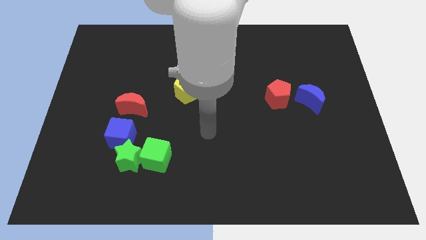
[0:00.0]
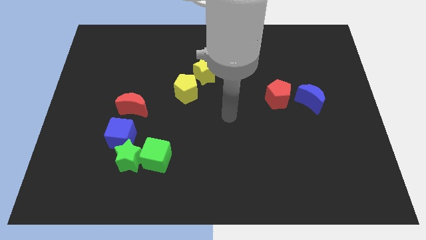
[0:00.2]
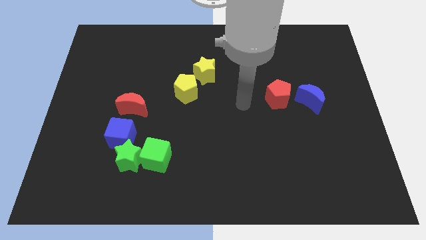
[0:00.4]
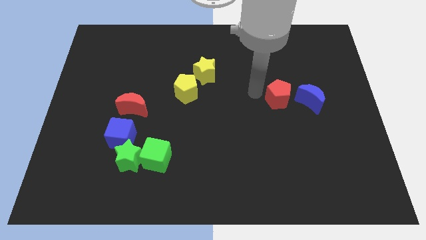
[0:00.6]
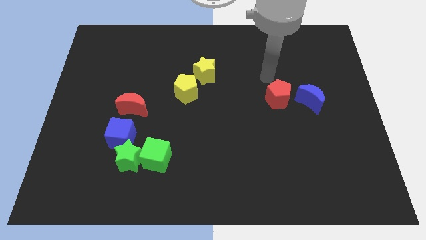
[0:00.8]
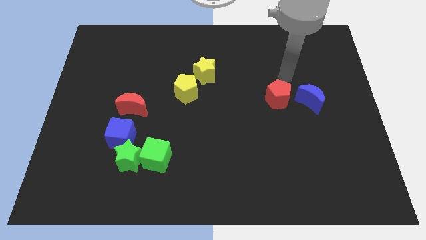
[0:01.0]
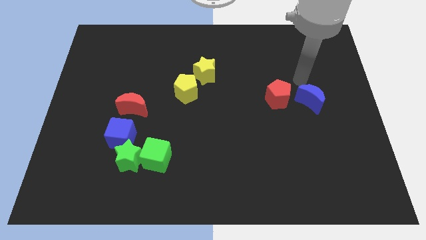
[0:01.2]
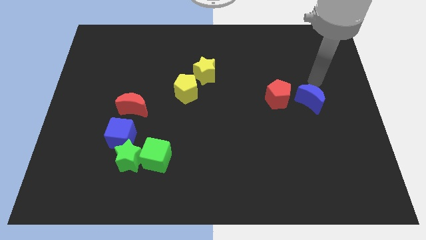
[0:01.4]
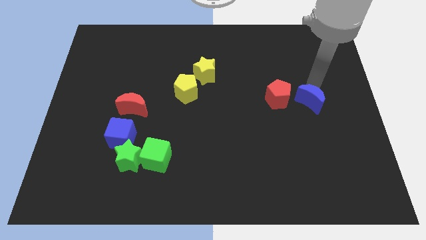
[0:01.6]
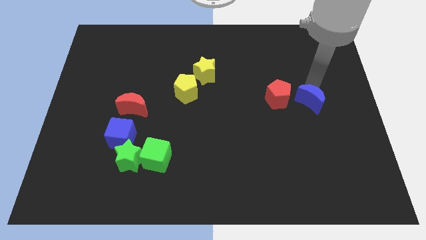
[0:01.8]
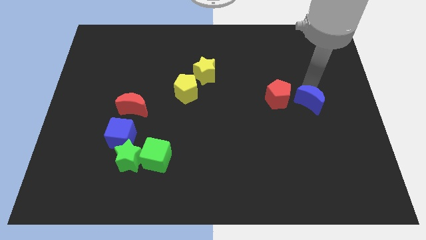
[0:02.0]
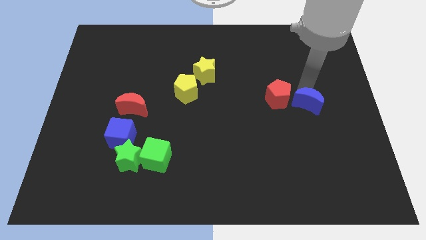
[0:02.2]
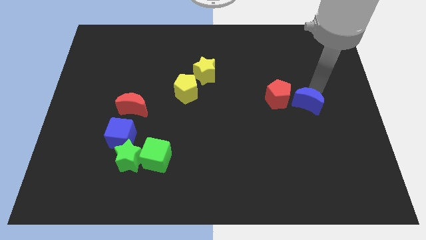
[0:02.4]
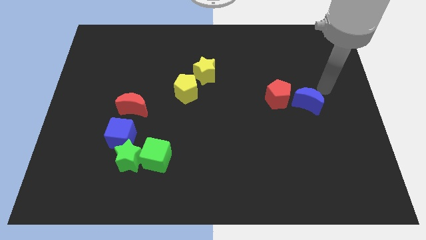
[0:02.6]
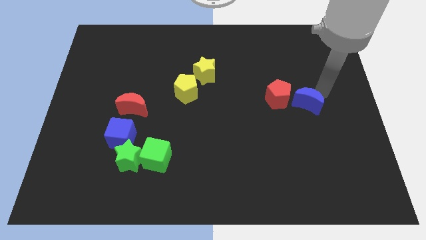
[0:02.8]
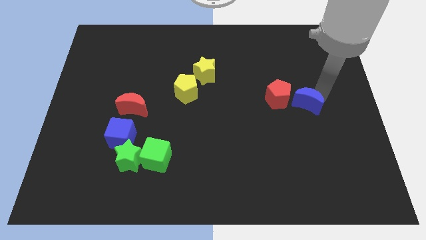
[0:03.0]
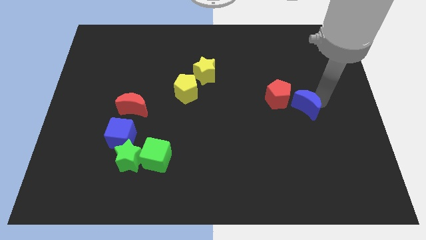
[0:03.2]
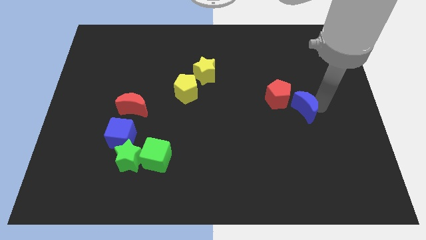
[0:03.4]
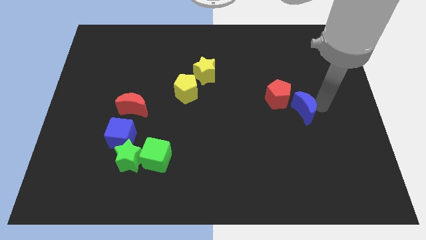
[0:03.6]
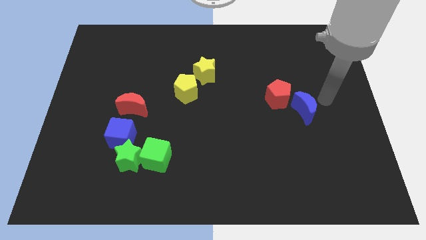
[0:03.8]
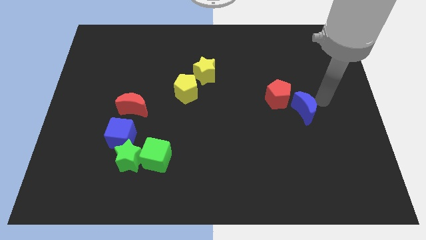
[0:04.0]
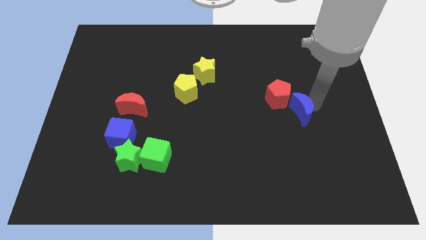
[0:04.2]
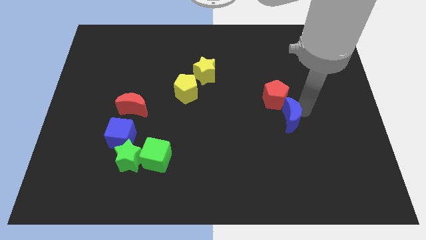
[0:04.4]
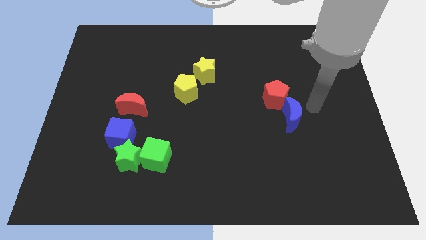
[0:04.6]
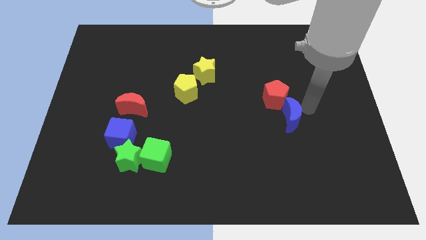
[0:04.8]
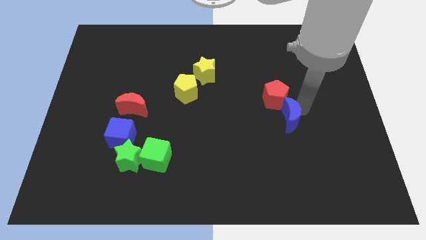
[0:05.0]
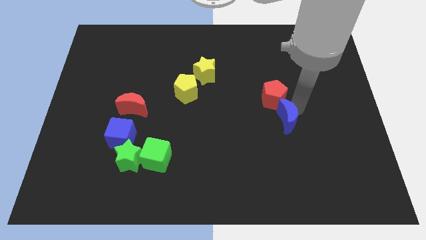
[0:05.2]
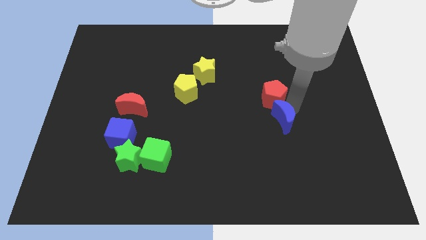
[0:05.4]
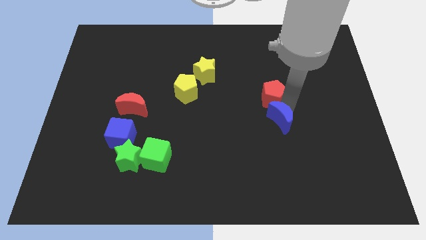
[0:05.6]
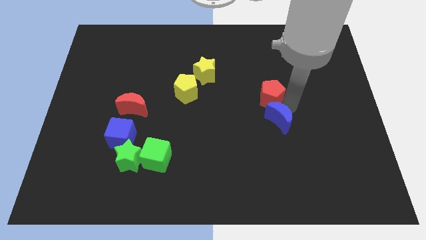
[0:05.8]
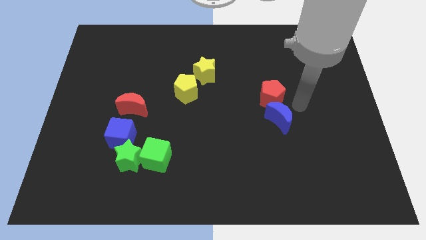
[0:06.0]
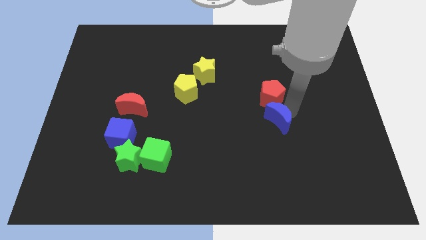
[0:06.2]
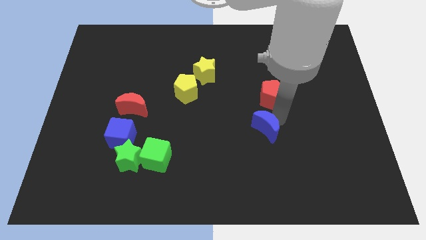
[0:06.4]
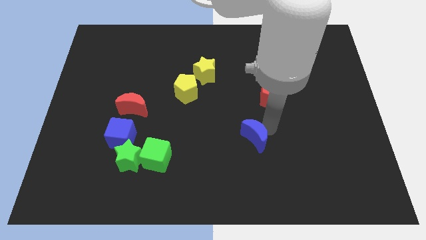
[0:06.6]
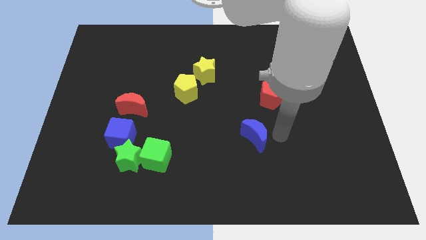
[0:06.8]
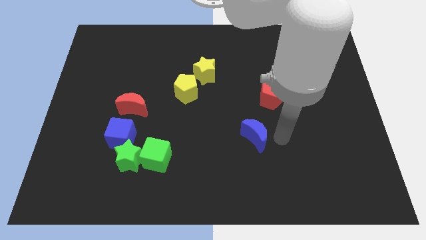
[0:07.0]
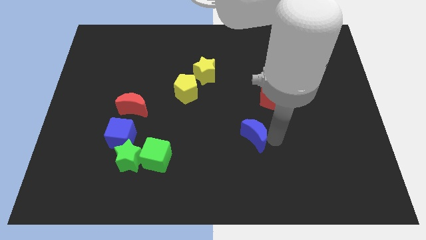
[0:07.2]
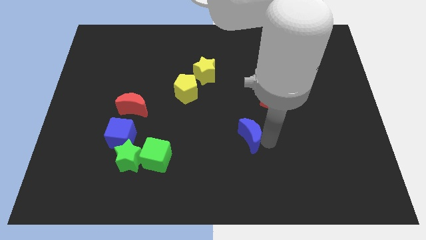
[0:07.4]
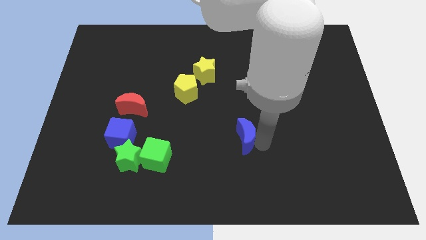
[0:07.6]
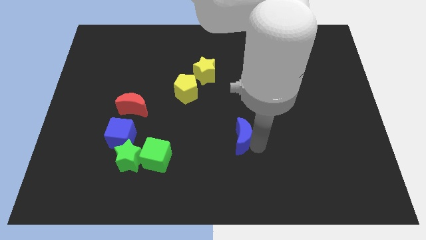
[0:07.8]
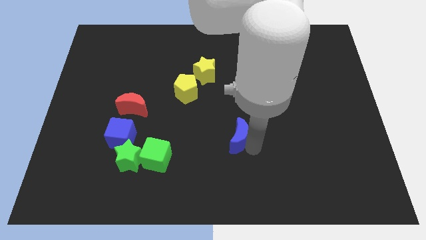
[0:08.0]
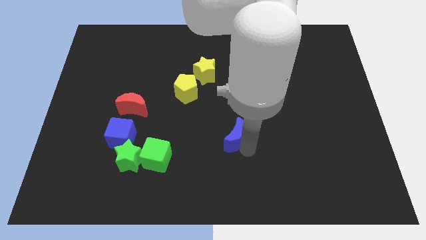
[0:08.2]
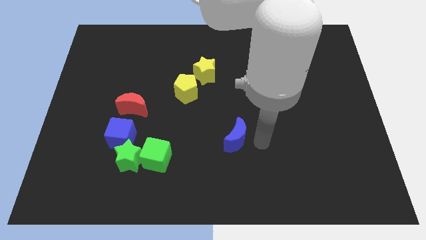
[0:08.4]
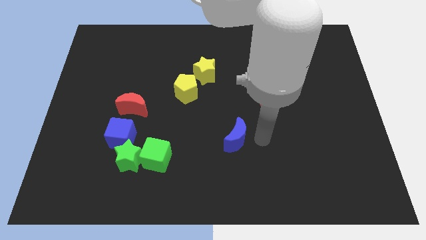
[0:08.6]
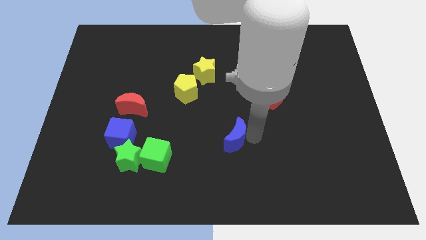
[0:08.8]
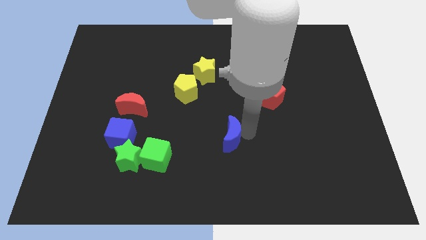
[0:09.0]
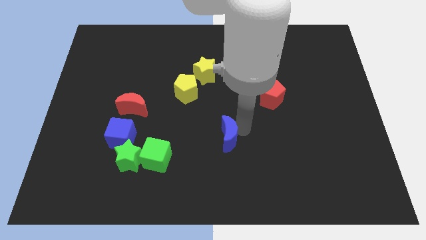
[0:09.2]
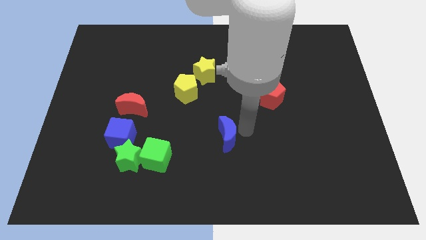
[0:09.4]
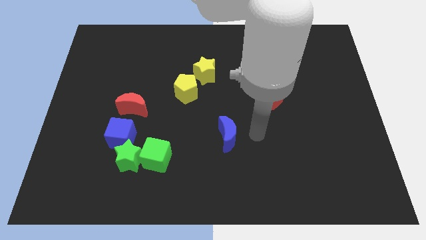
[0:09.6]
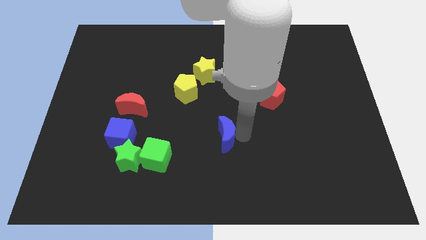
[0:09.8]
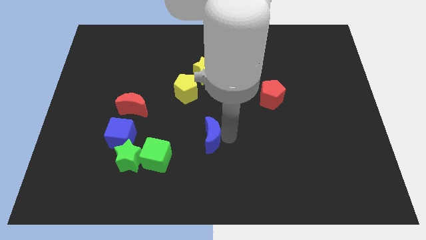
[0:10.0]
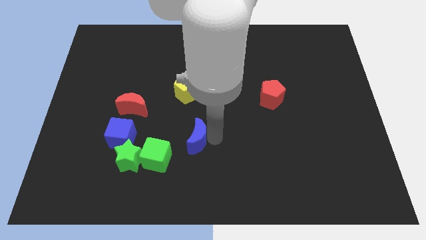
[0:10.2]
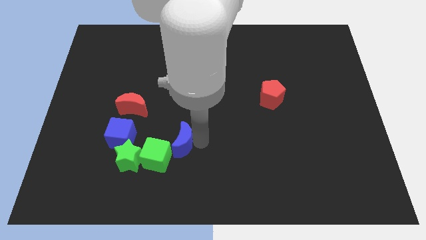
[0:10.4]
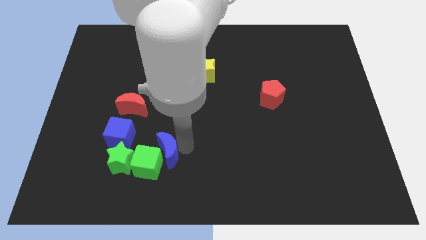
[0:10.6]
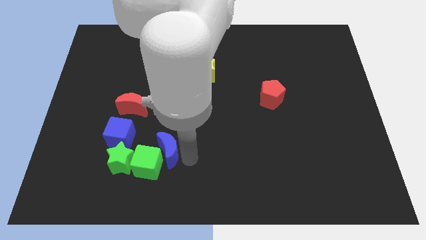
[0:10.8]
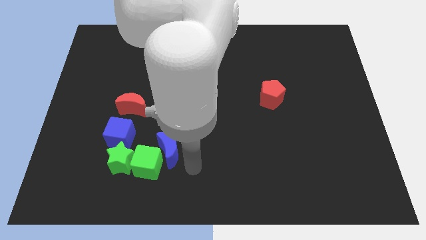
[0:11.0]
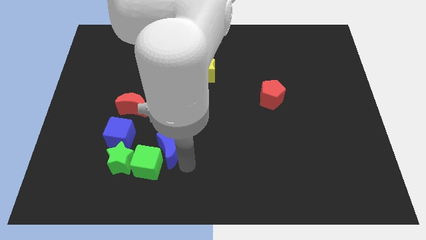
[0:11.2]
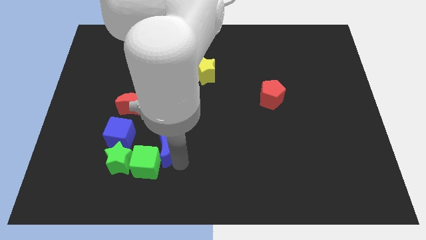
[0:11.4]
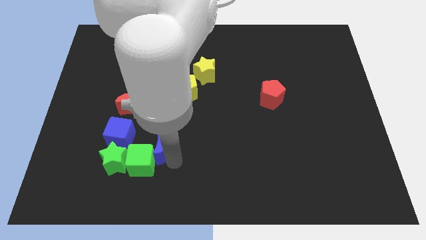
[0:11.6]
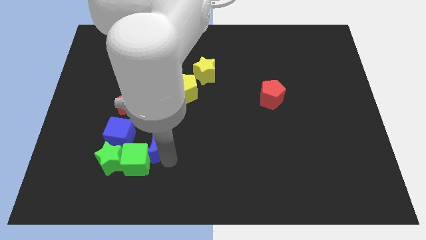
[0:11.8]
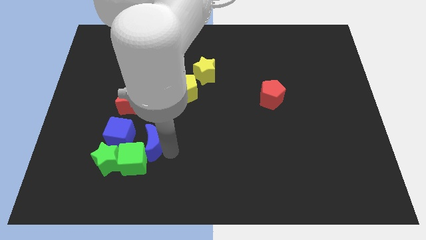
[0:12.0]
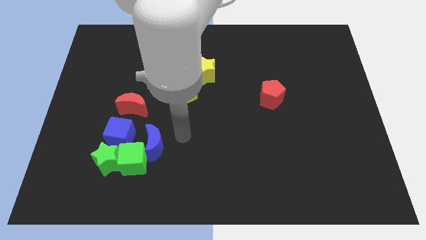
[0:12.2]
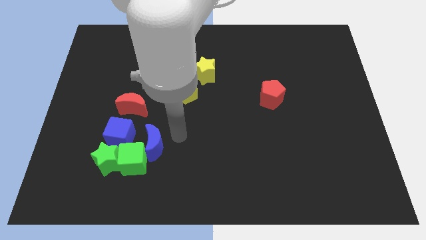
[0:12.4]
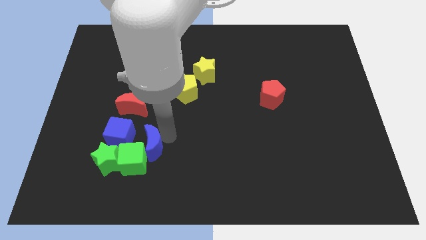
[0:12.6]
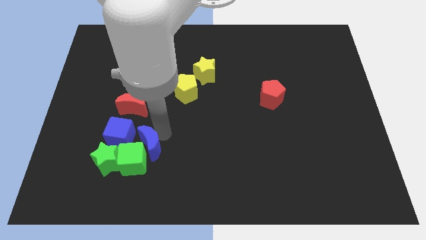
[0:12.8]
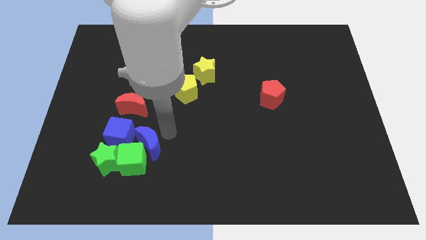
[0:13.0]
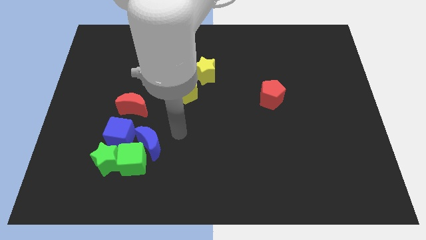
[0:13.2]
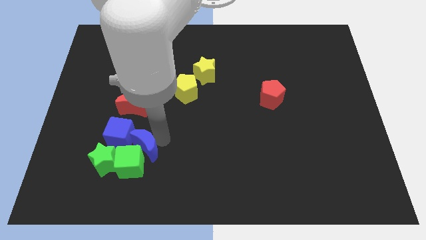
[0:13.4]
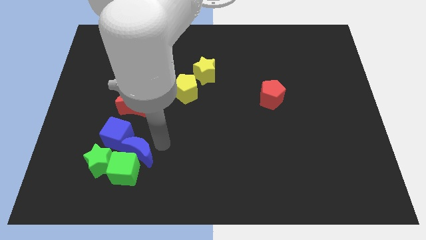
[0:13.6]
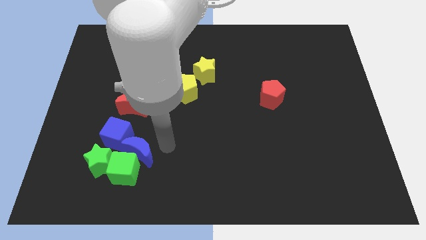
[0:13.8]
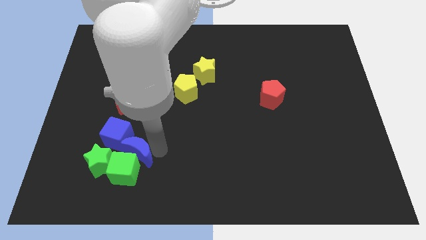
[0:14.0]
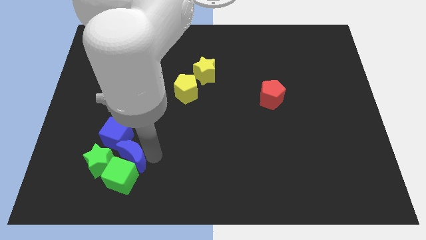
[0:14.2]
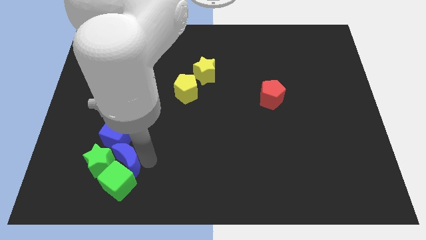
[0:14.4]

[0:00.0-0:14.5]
move the blue moon towards the green star

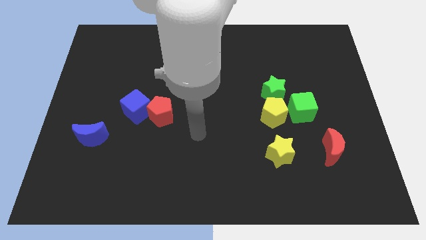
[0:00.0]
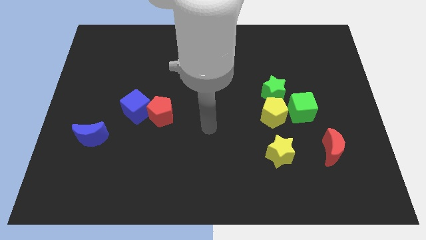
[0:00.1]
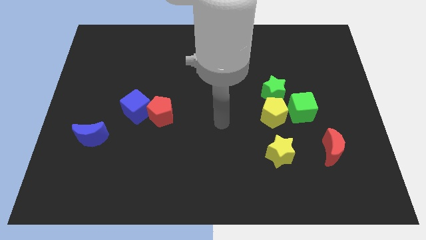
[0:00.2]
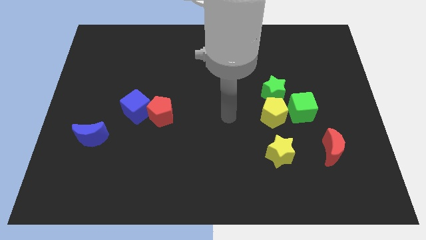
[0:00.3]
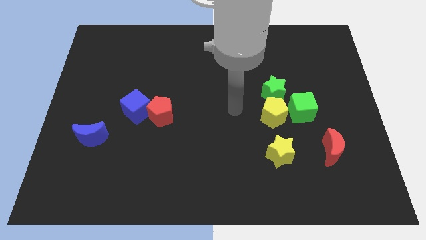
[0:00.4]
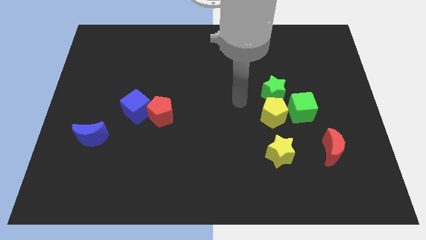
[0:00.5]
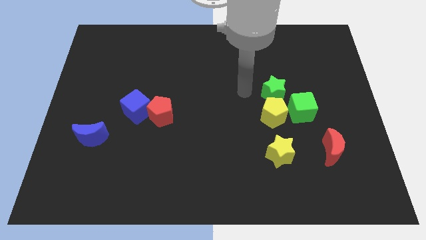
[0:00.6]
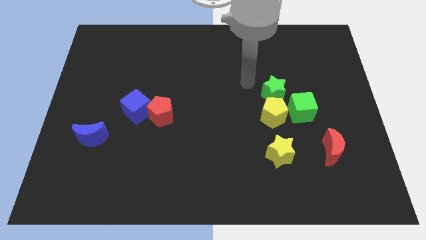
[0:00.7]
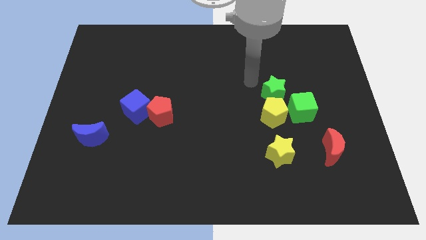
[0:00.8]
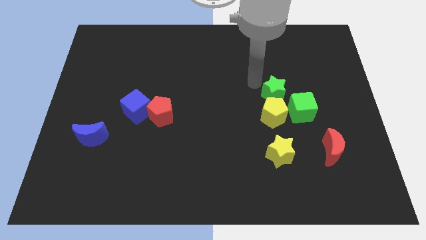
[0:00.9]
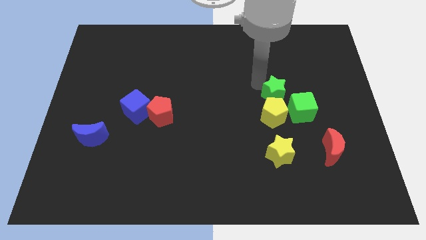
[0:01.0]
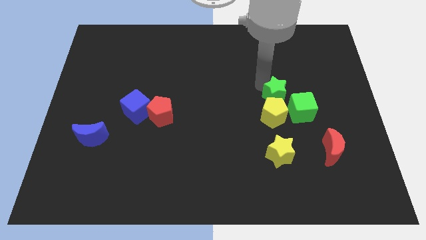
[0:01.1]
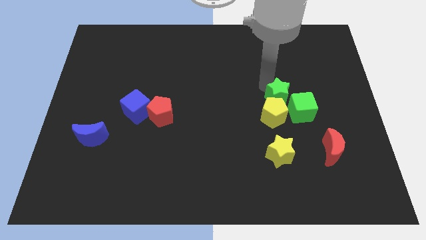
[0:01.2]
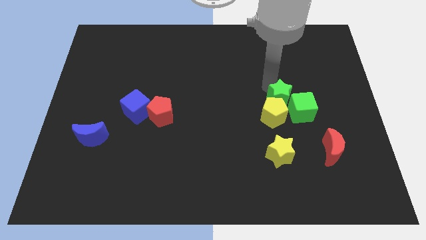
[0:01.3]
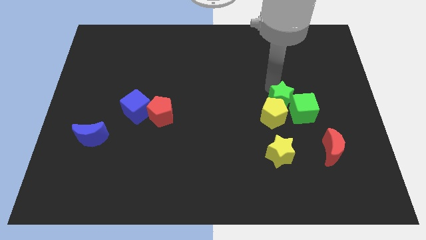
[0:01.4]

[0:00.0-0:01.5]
put the green star towards the green cube

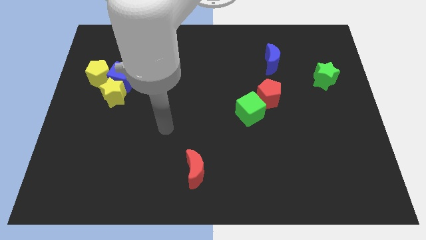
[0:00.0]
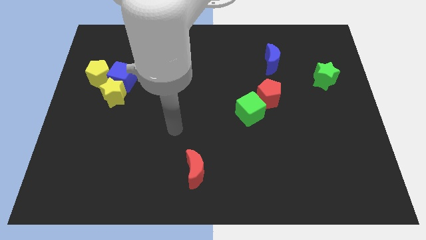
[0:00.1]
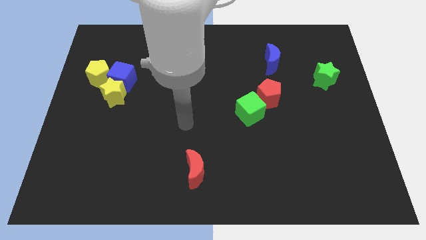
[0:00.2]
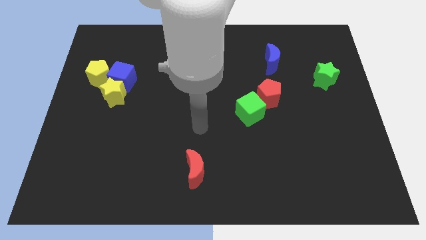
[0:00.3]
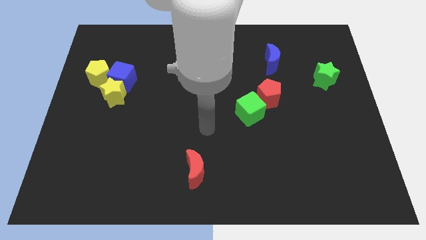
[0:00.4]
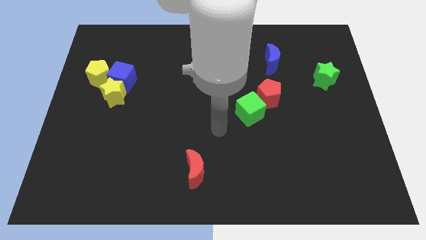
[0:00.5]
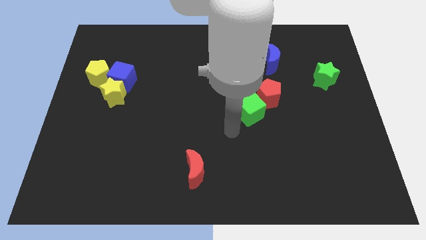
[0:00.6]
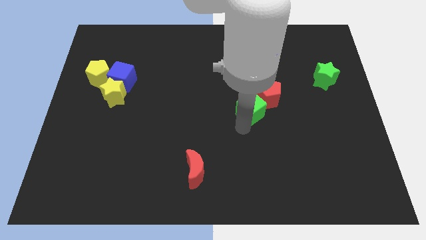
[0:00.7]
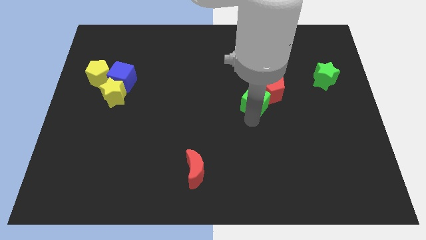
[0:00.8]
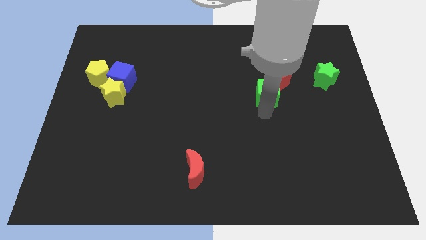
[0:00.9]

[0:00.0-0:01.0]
put the red pentagon towards the blue moon
